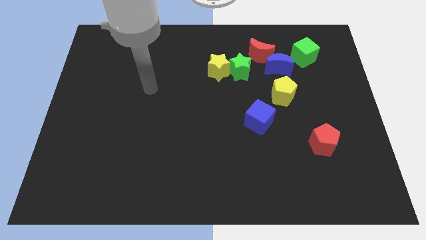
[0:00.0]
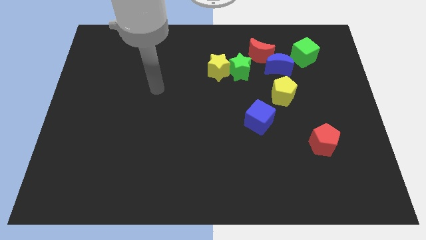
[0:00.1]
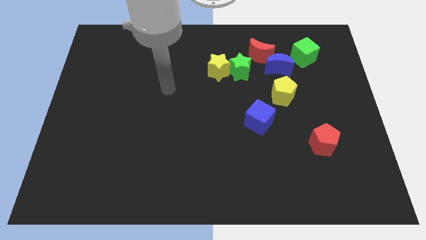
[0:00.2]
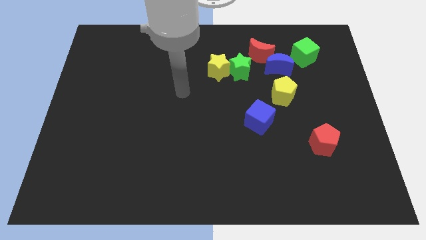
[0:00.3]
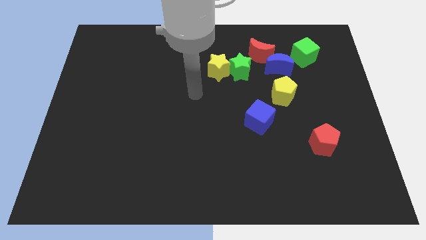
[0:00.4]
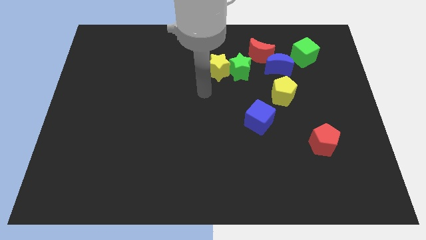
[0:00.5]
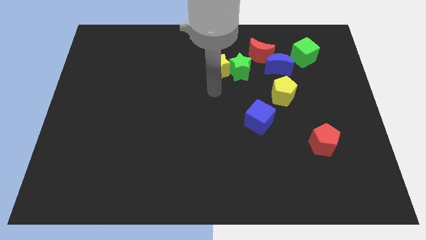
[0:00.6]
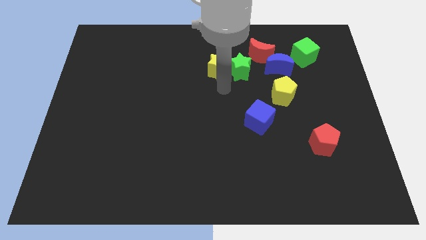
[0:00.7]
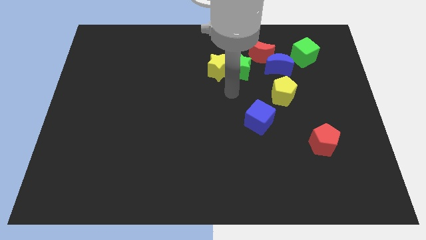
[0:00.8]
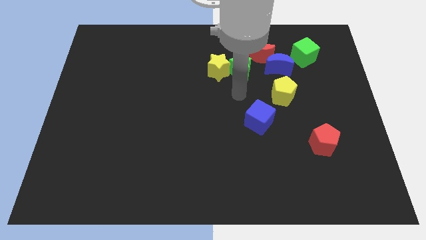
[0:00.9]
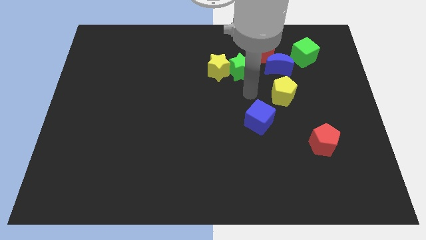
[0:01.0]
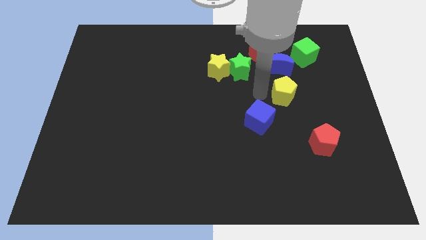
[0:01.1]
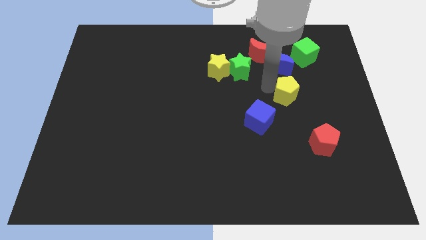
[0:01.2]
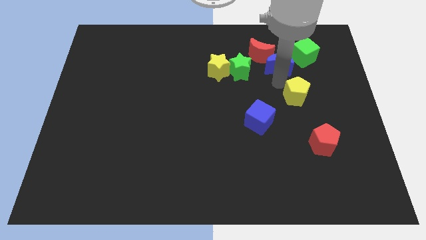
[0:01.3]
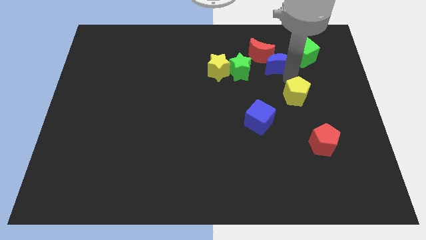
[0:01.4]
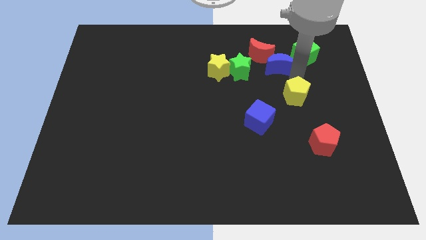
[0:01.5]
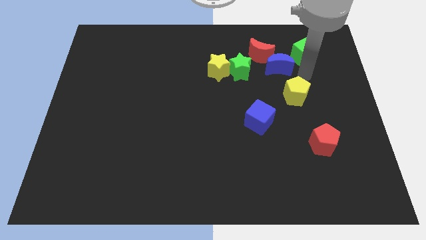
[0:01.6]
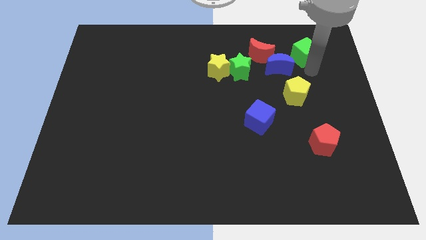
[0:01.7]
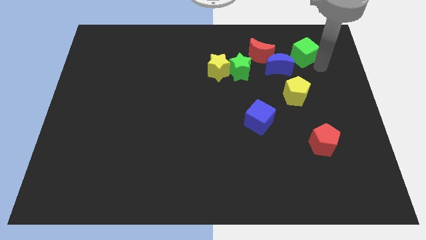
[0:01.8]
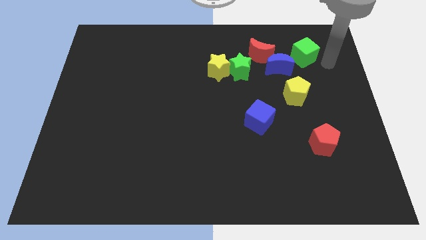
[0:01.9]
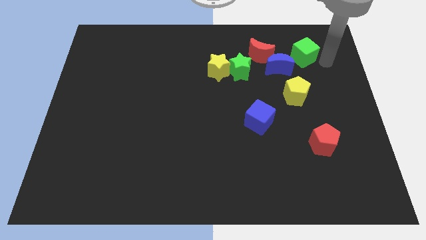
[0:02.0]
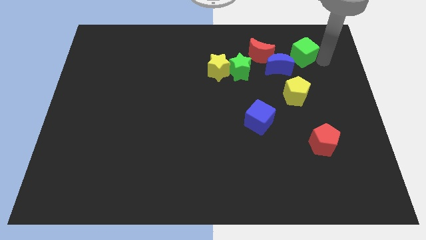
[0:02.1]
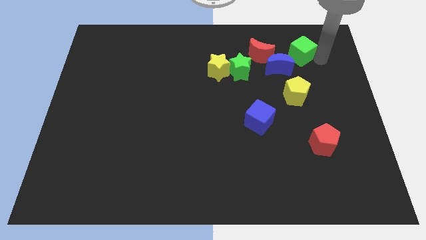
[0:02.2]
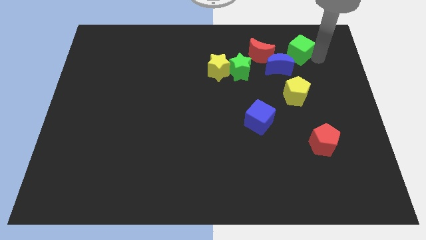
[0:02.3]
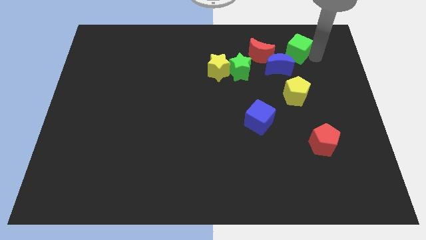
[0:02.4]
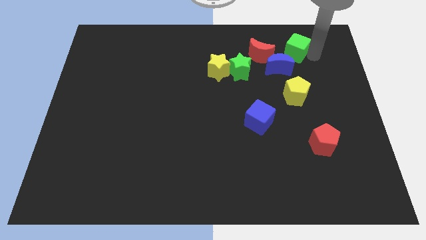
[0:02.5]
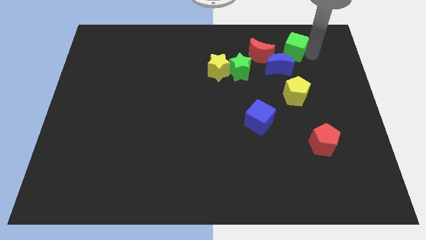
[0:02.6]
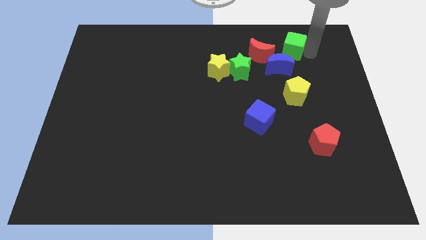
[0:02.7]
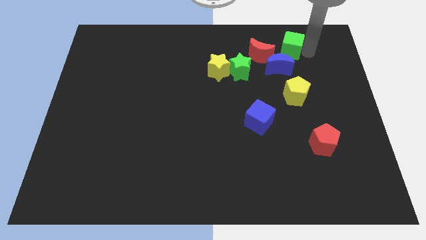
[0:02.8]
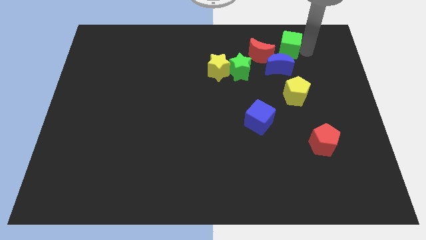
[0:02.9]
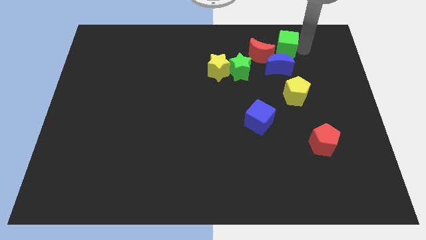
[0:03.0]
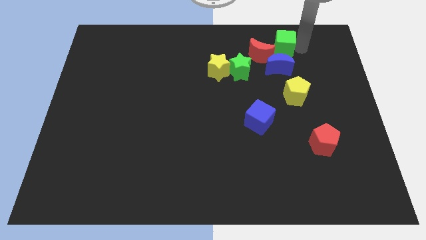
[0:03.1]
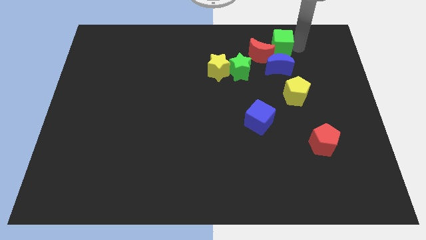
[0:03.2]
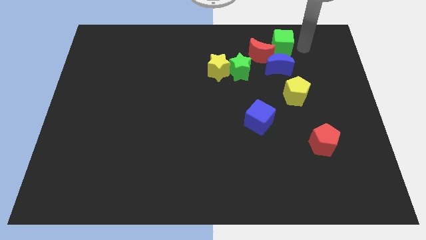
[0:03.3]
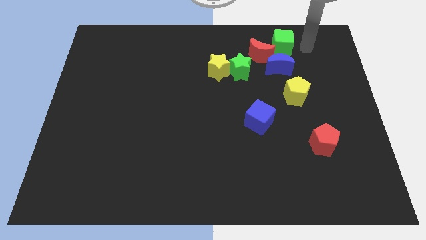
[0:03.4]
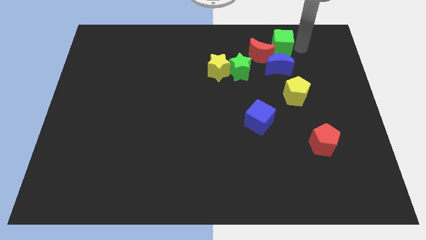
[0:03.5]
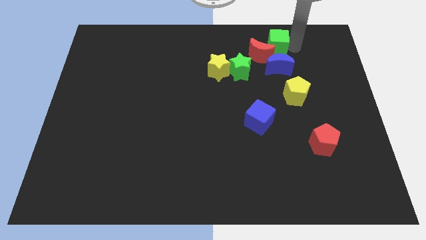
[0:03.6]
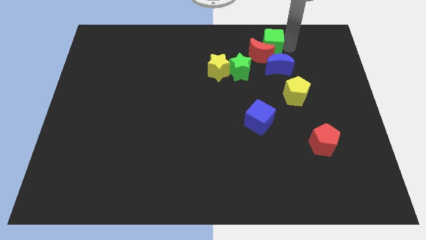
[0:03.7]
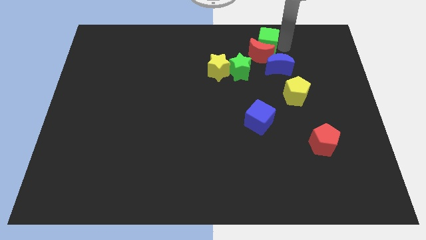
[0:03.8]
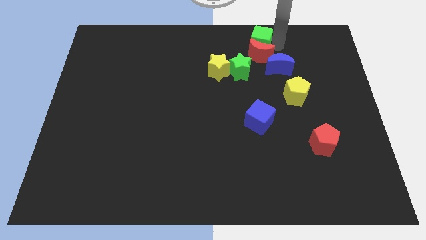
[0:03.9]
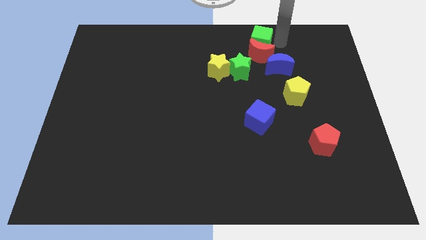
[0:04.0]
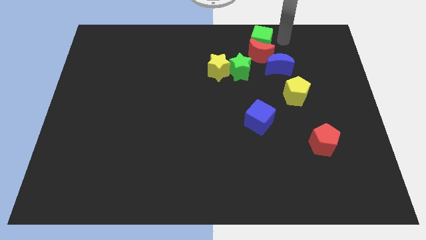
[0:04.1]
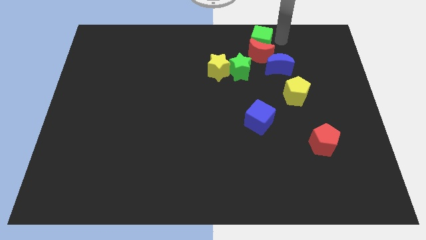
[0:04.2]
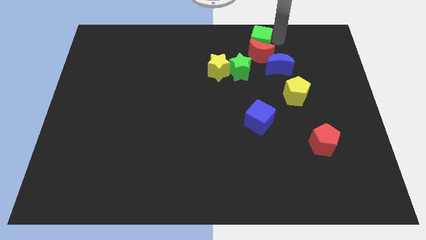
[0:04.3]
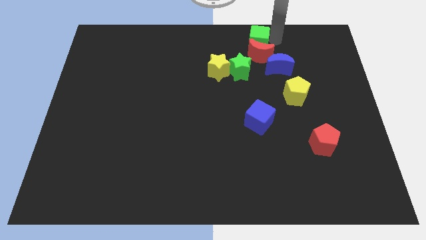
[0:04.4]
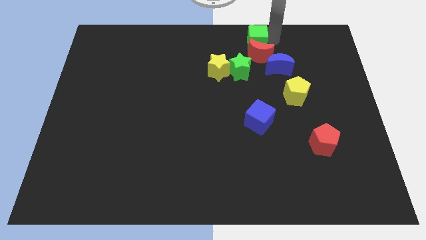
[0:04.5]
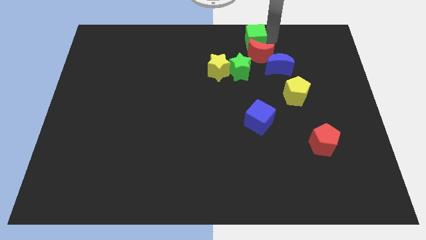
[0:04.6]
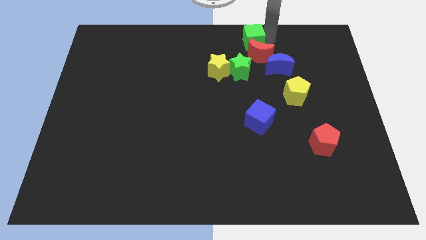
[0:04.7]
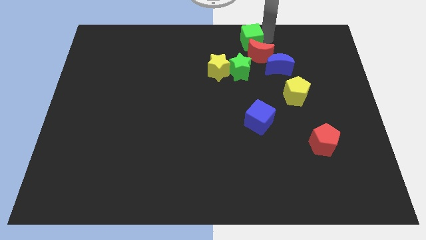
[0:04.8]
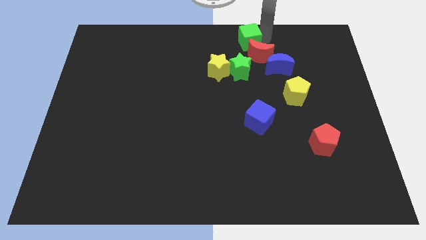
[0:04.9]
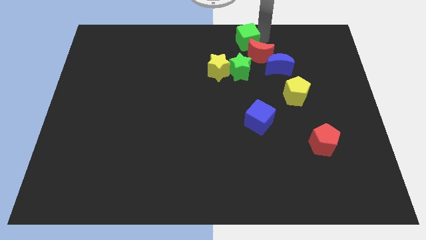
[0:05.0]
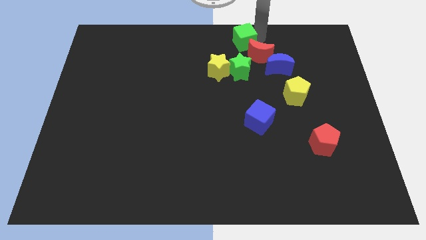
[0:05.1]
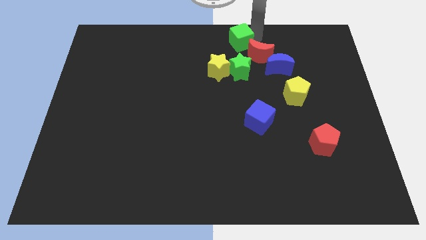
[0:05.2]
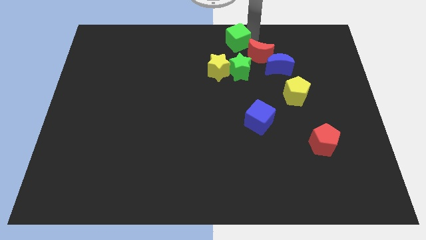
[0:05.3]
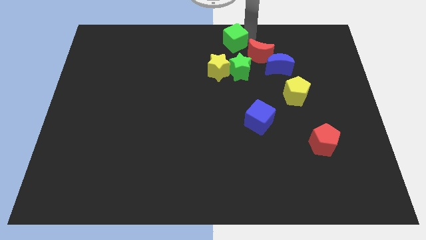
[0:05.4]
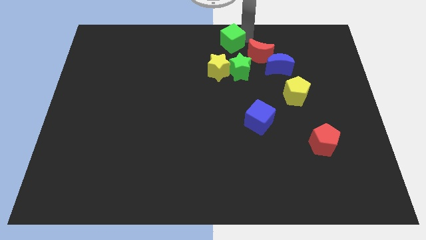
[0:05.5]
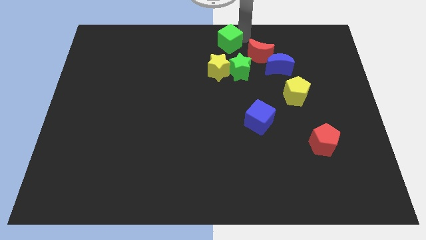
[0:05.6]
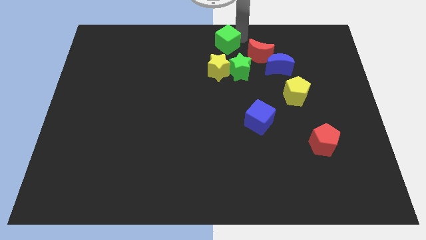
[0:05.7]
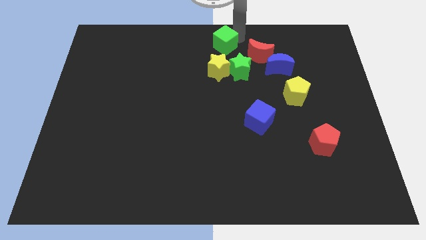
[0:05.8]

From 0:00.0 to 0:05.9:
put the green cube to the top left side of the green star

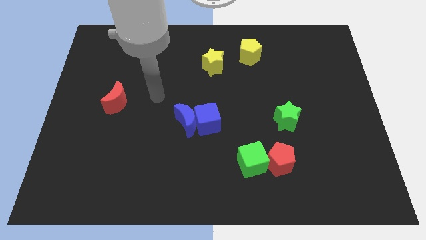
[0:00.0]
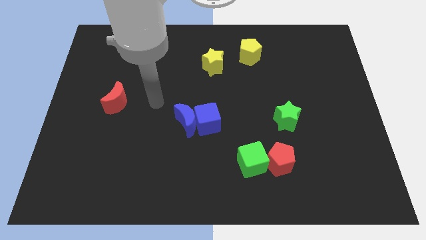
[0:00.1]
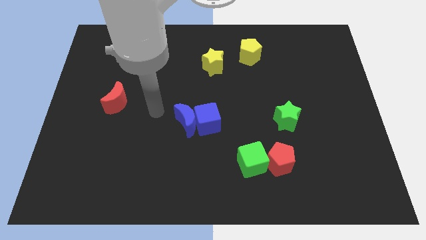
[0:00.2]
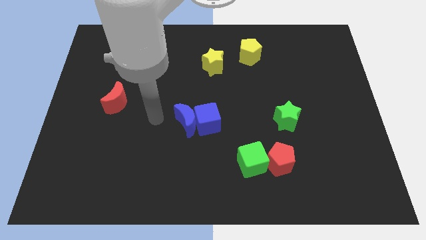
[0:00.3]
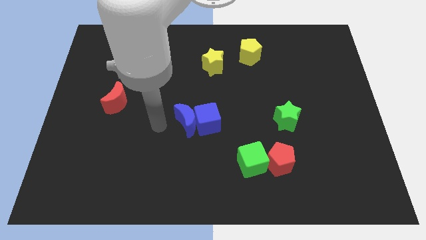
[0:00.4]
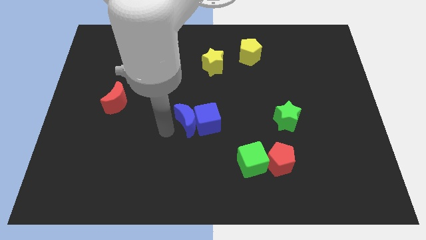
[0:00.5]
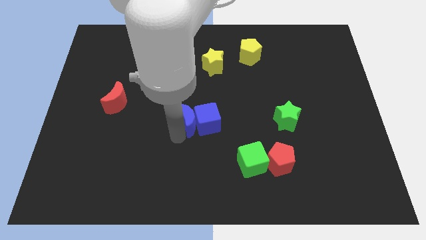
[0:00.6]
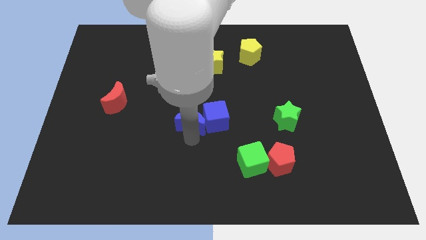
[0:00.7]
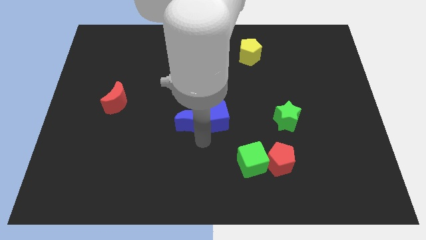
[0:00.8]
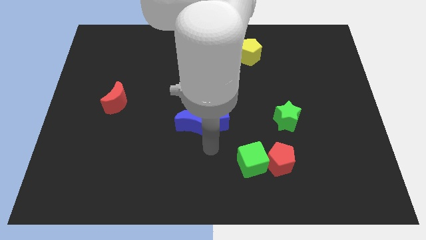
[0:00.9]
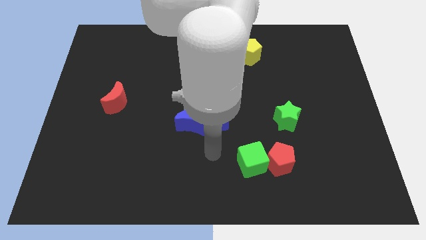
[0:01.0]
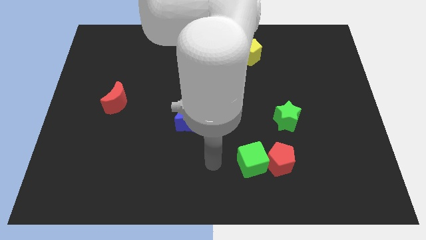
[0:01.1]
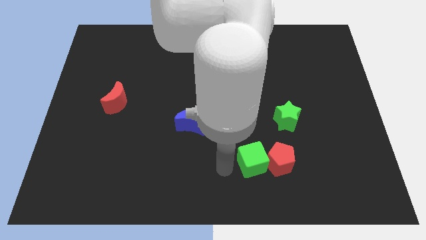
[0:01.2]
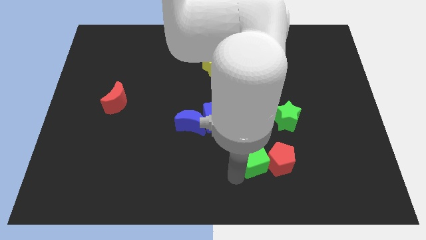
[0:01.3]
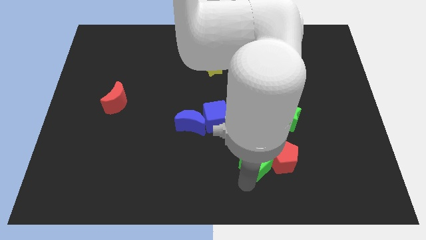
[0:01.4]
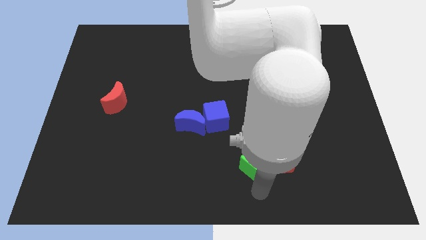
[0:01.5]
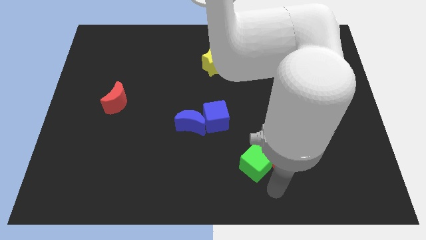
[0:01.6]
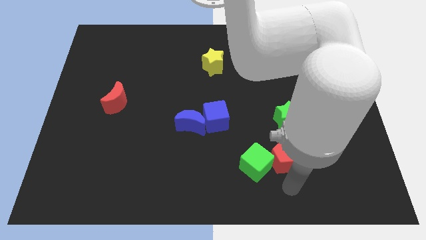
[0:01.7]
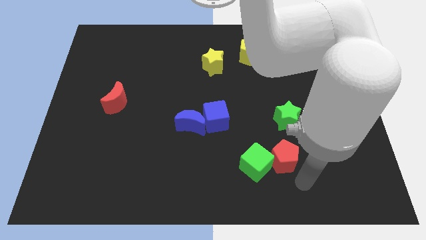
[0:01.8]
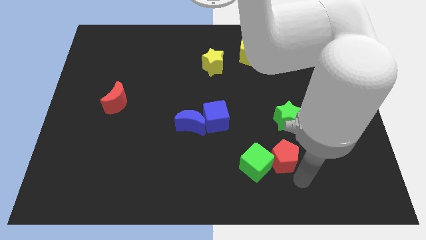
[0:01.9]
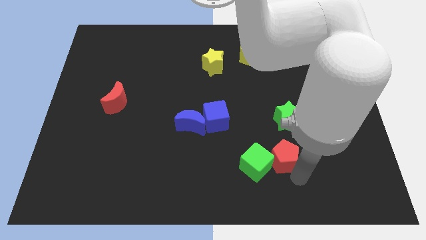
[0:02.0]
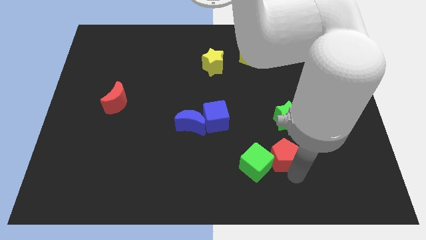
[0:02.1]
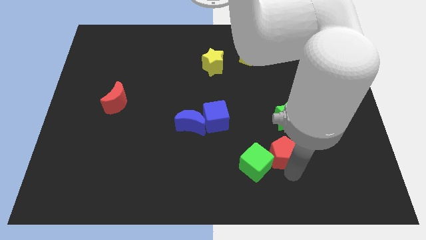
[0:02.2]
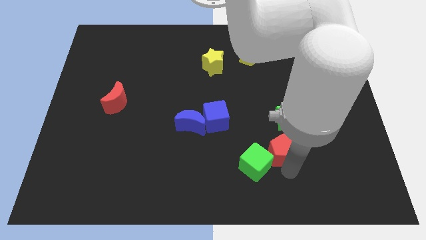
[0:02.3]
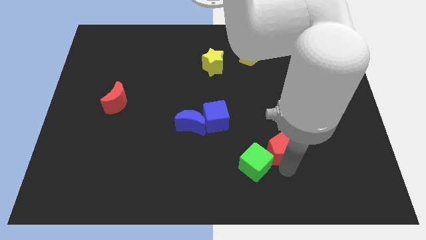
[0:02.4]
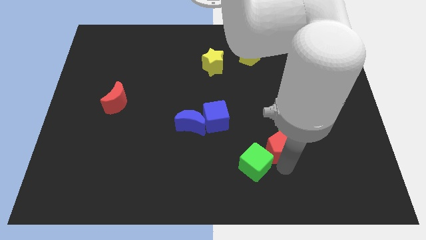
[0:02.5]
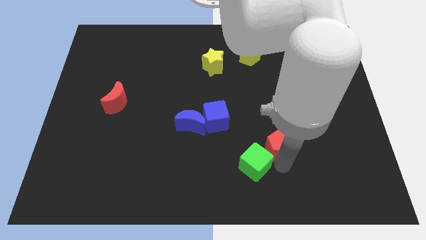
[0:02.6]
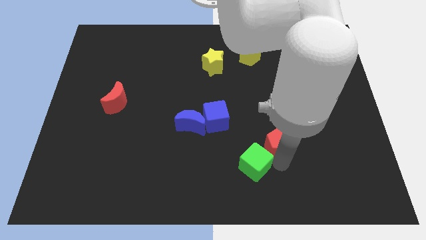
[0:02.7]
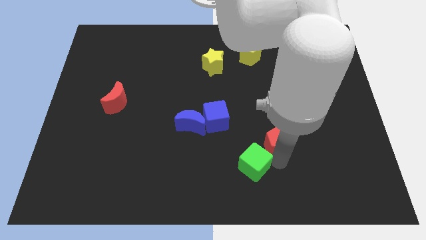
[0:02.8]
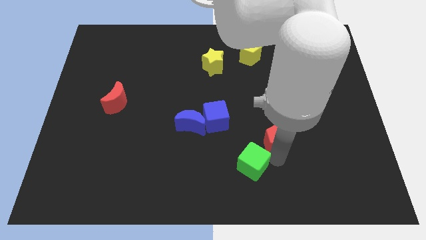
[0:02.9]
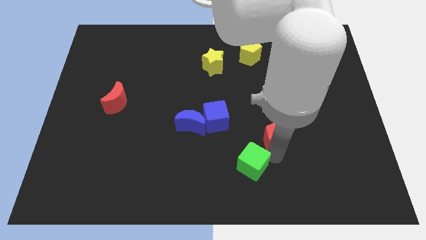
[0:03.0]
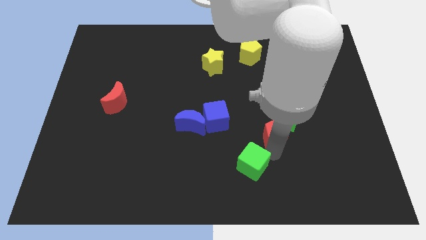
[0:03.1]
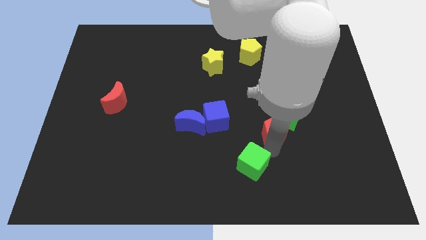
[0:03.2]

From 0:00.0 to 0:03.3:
move the red pentagon right of the blue cube
